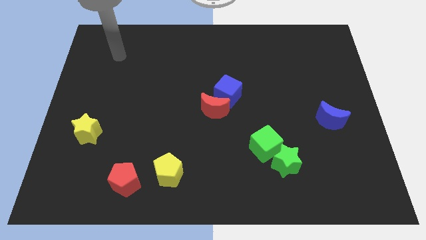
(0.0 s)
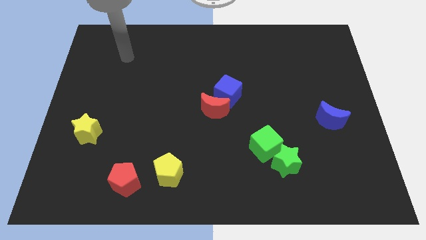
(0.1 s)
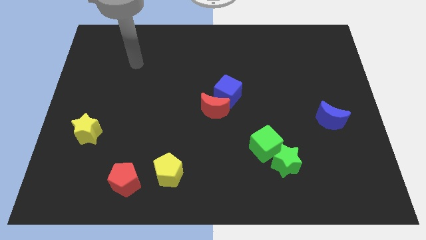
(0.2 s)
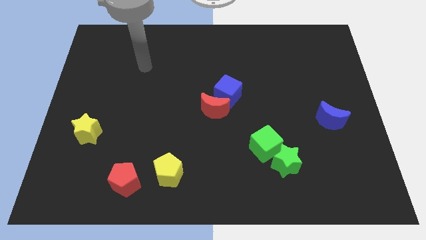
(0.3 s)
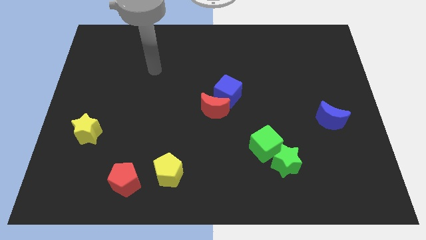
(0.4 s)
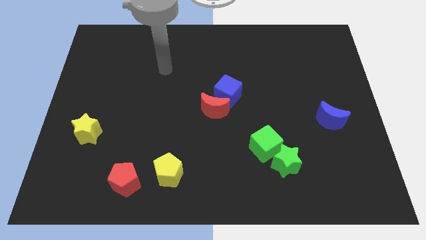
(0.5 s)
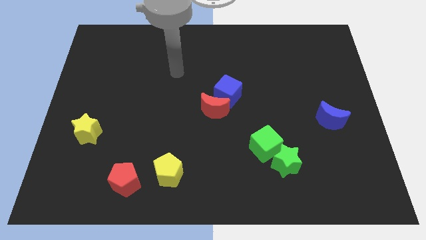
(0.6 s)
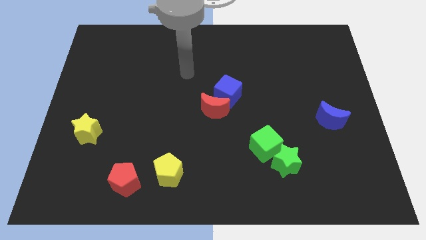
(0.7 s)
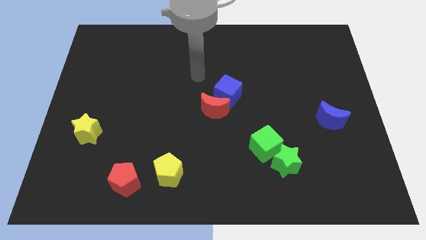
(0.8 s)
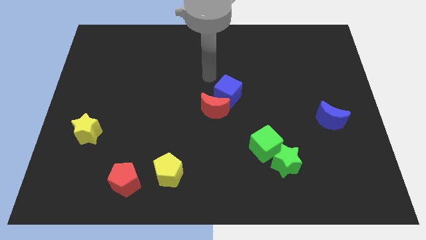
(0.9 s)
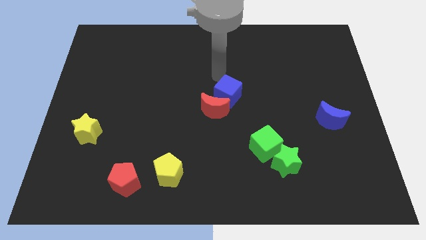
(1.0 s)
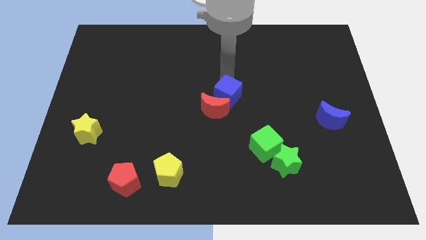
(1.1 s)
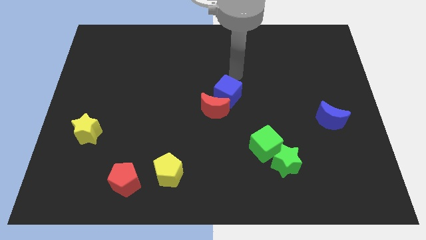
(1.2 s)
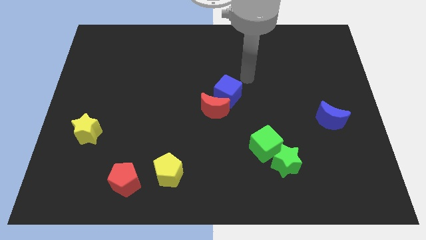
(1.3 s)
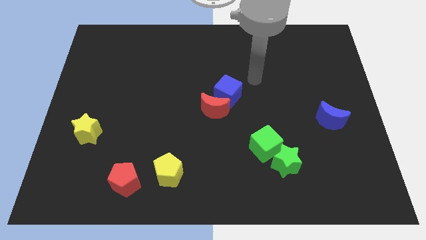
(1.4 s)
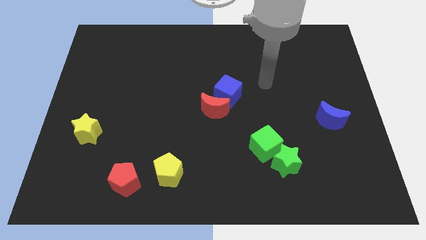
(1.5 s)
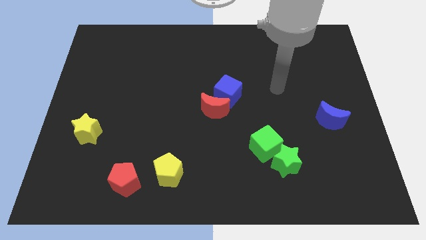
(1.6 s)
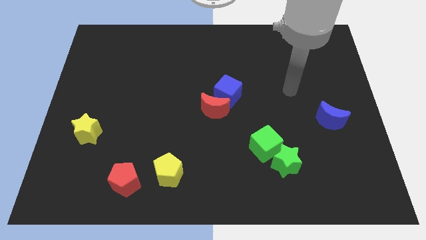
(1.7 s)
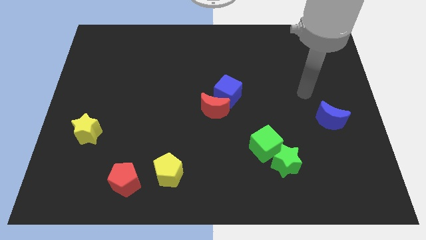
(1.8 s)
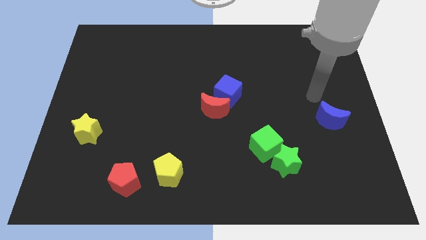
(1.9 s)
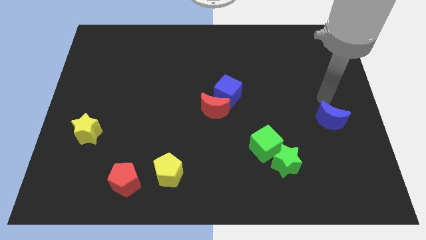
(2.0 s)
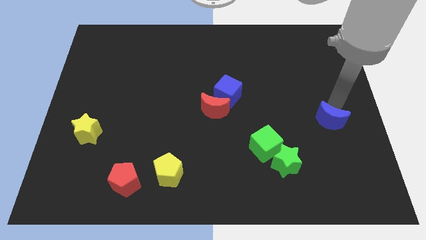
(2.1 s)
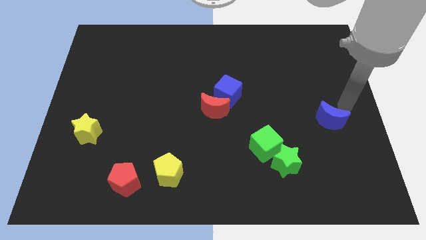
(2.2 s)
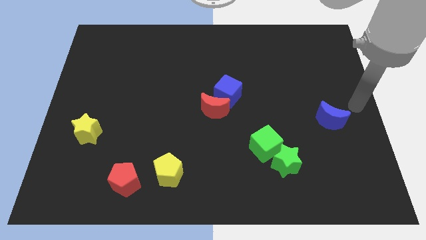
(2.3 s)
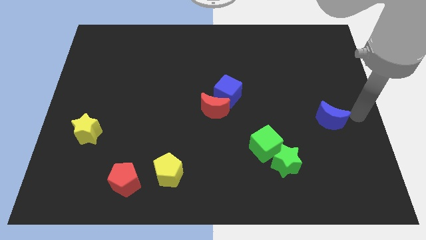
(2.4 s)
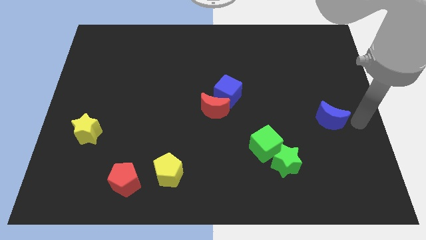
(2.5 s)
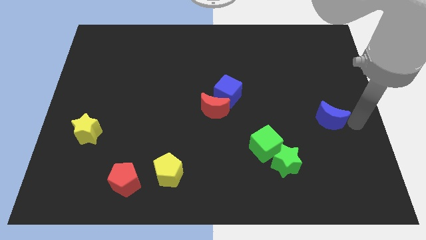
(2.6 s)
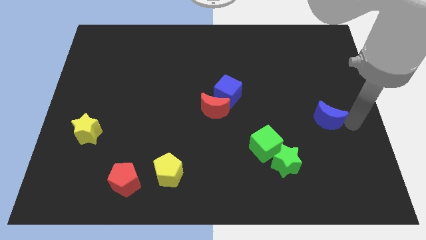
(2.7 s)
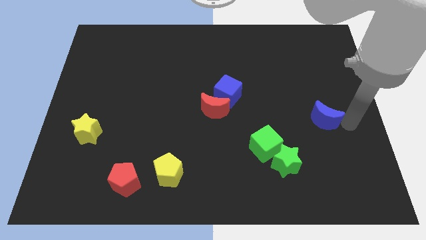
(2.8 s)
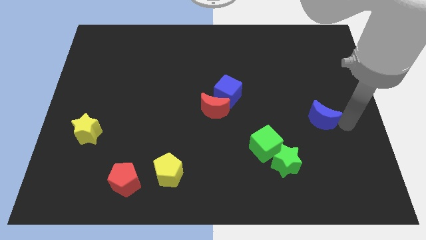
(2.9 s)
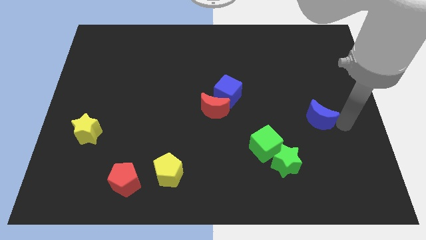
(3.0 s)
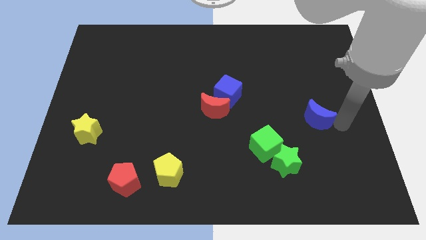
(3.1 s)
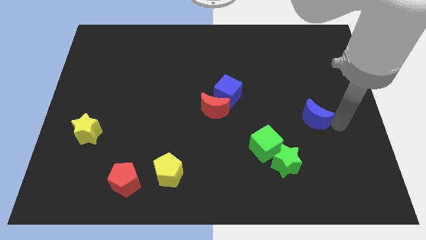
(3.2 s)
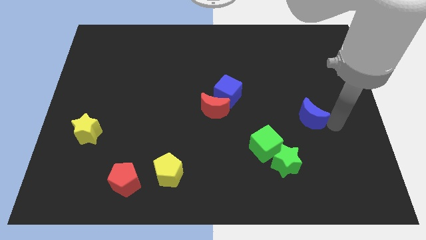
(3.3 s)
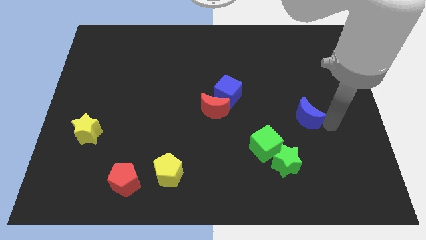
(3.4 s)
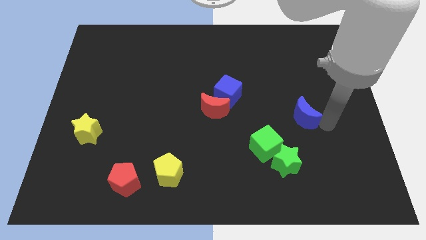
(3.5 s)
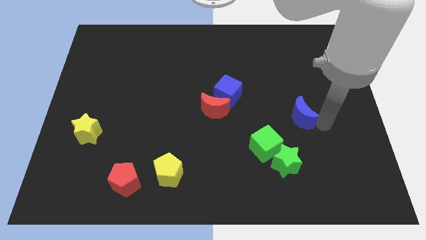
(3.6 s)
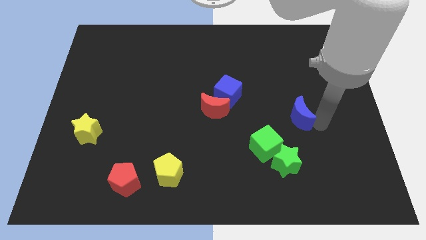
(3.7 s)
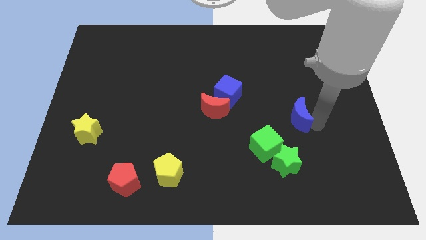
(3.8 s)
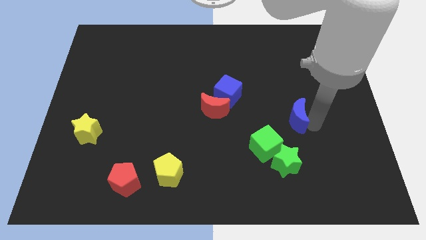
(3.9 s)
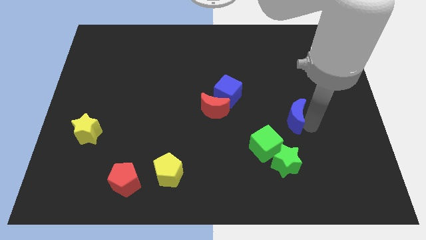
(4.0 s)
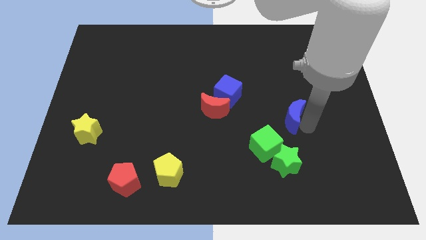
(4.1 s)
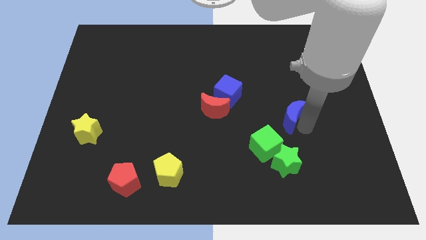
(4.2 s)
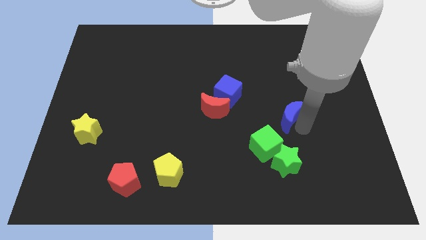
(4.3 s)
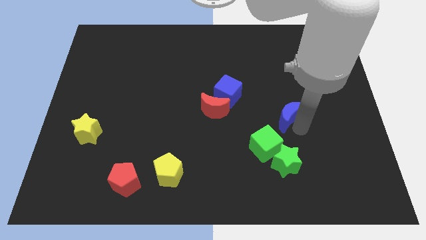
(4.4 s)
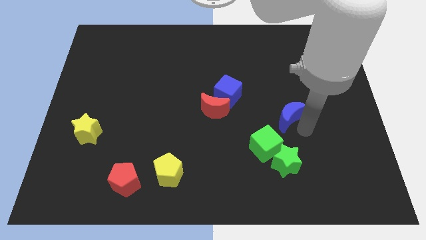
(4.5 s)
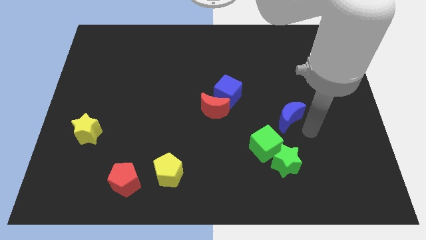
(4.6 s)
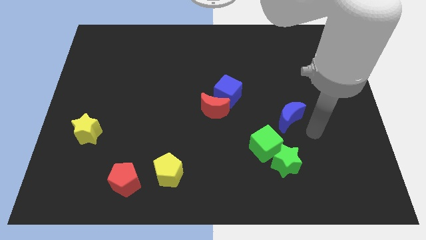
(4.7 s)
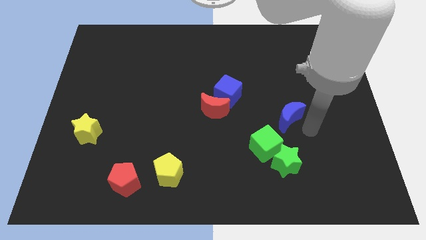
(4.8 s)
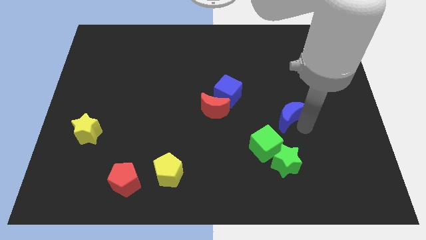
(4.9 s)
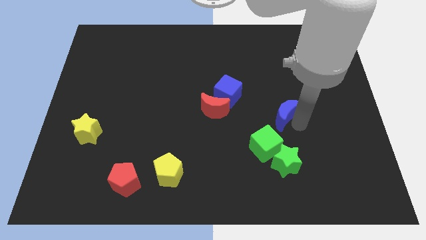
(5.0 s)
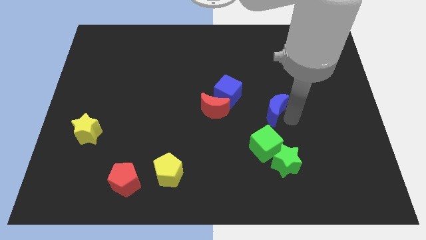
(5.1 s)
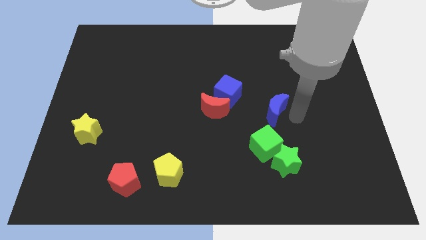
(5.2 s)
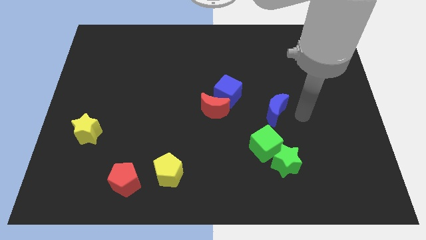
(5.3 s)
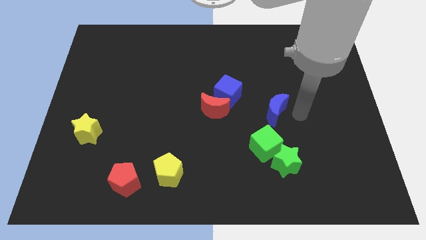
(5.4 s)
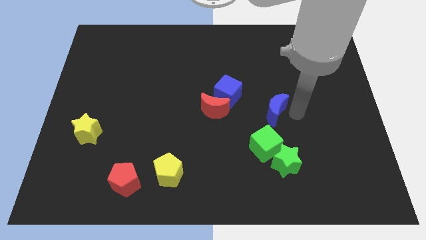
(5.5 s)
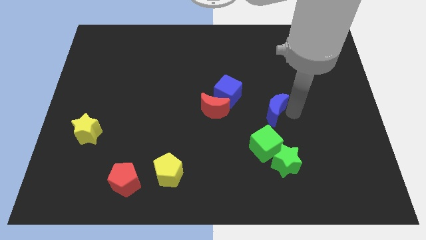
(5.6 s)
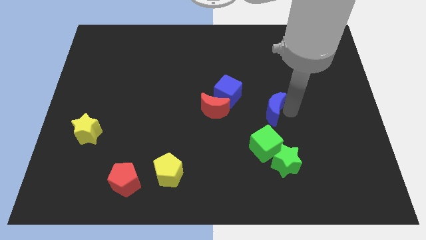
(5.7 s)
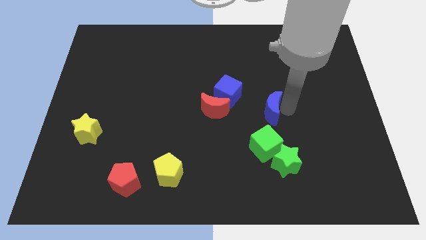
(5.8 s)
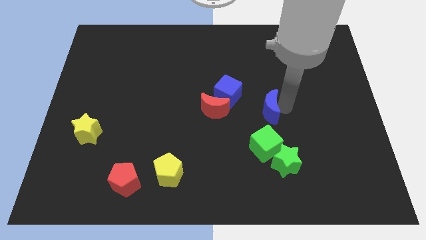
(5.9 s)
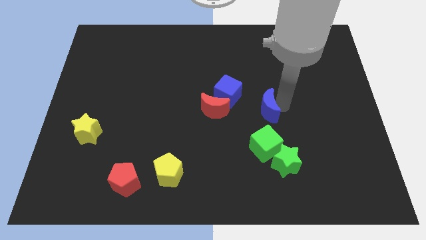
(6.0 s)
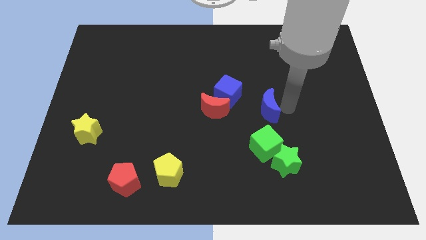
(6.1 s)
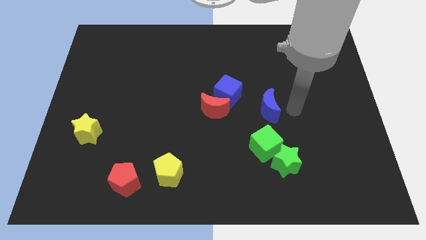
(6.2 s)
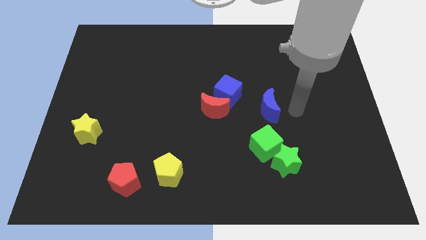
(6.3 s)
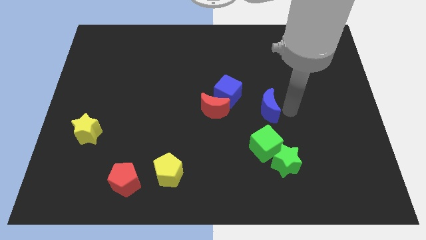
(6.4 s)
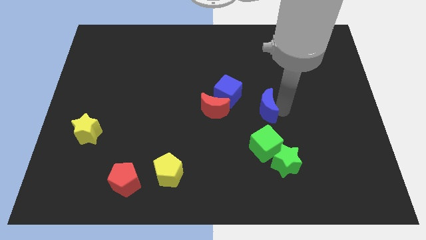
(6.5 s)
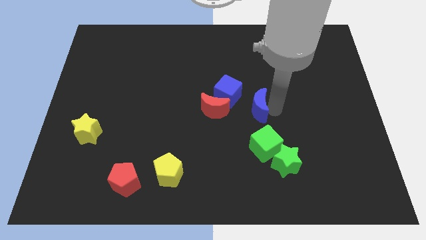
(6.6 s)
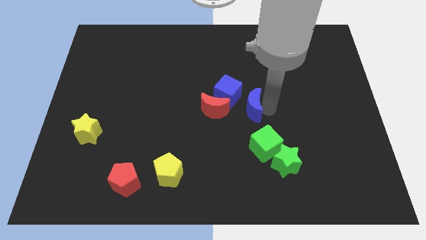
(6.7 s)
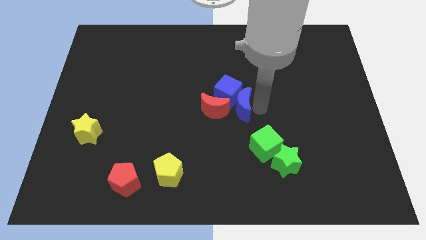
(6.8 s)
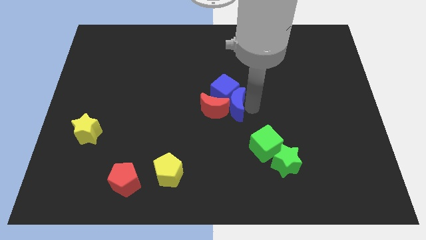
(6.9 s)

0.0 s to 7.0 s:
put the blue moon close to the red moon
